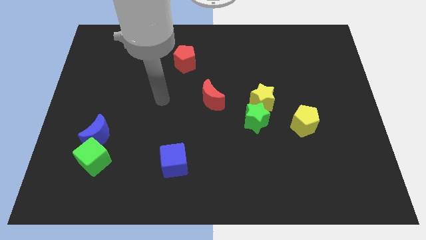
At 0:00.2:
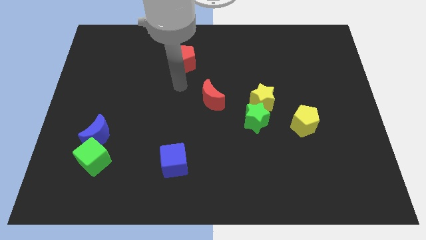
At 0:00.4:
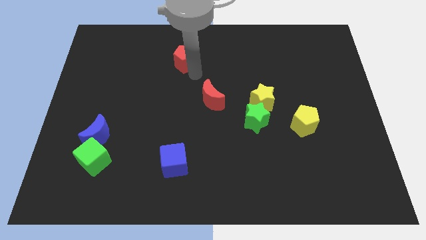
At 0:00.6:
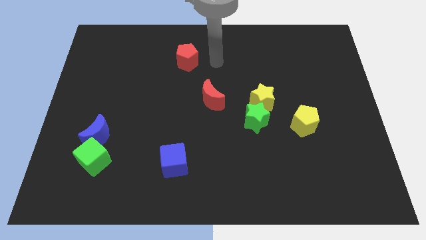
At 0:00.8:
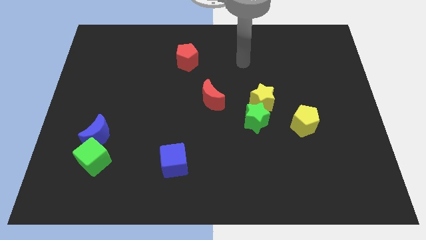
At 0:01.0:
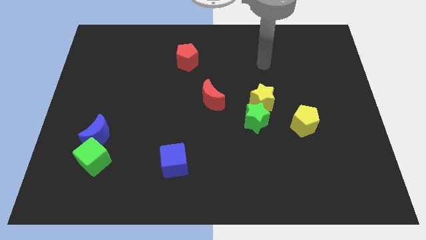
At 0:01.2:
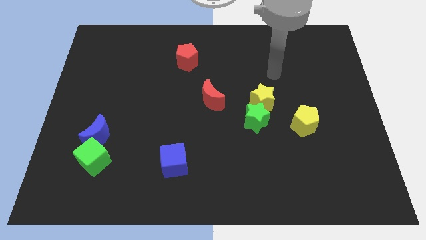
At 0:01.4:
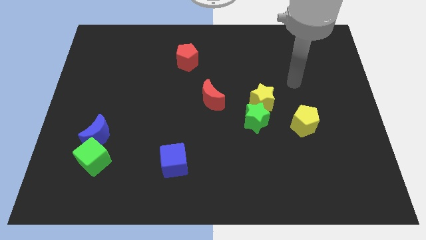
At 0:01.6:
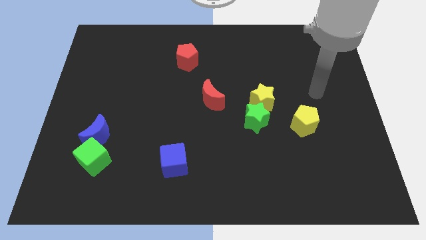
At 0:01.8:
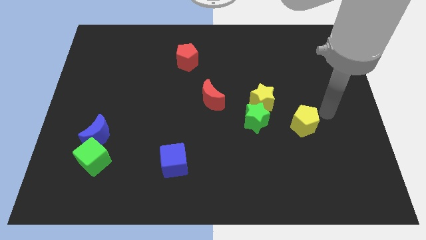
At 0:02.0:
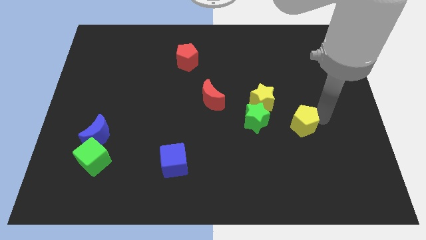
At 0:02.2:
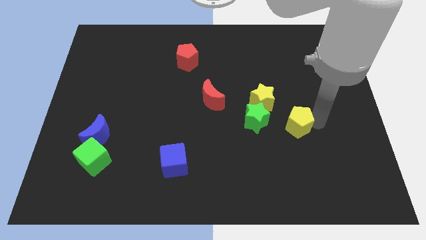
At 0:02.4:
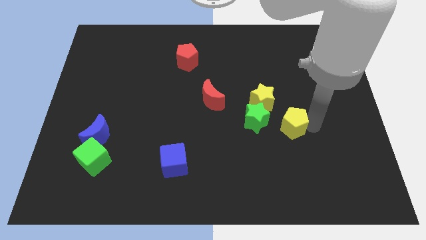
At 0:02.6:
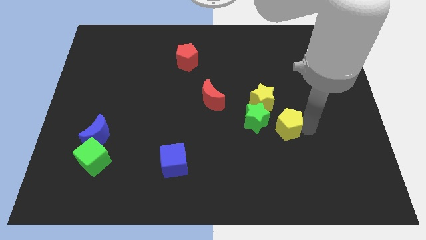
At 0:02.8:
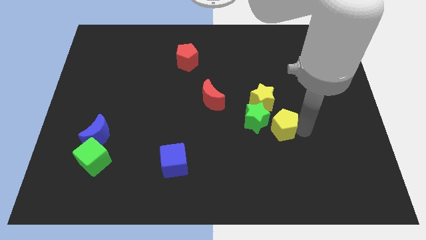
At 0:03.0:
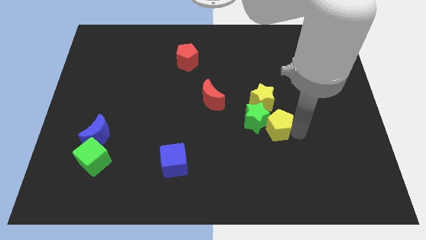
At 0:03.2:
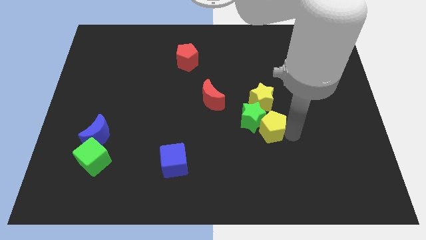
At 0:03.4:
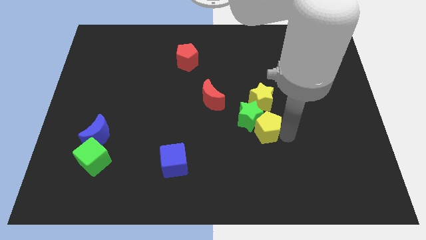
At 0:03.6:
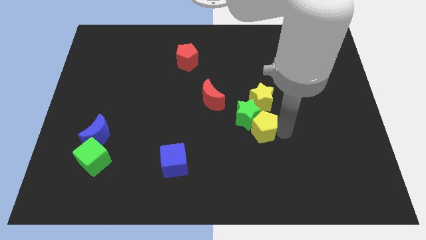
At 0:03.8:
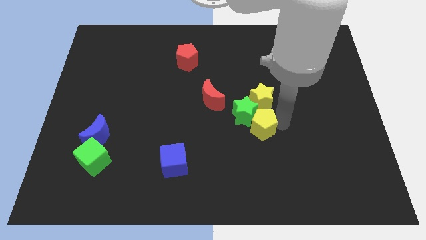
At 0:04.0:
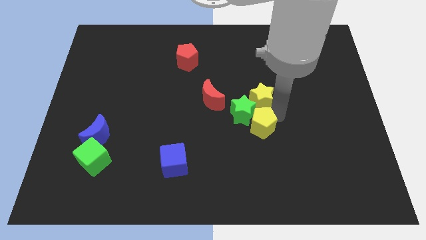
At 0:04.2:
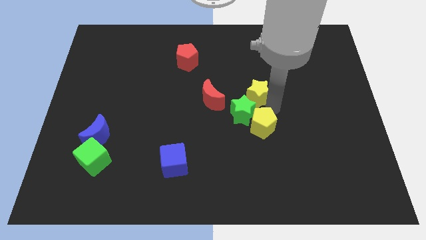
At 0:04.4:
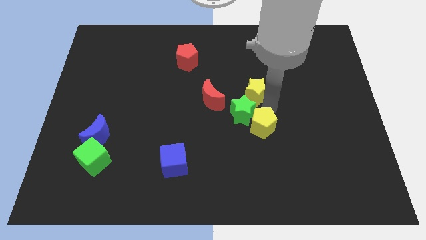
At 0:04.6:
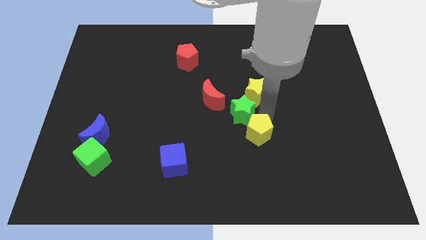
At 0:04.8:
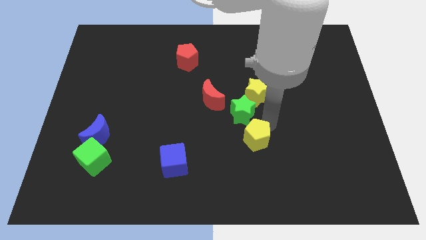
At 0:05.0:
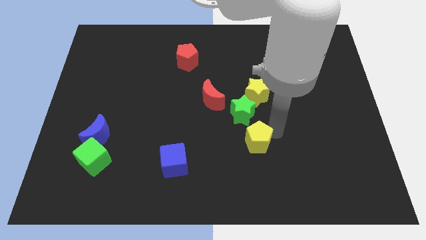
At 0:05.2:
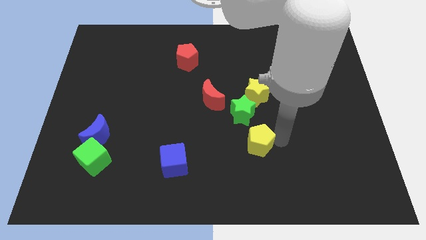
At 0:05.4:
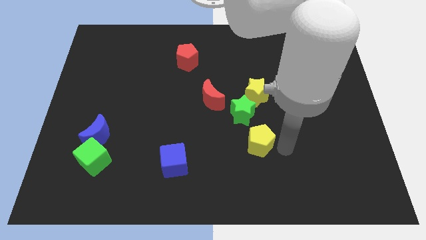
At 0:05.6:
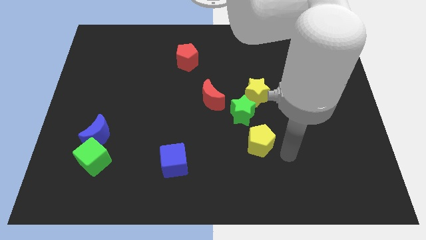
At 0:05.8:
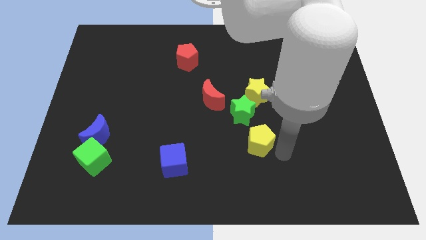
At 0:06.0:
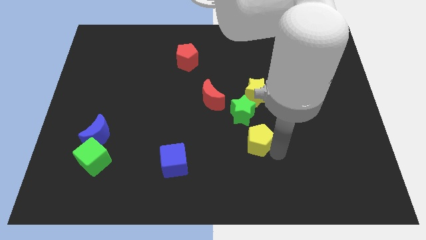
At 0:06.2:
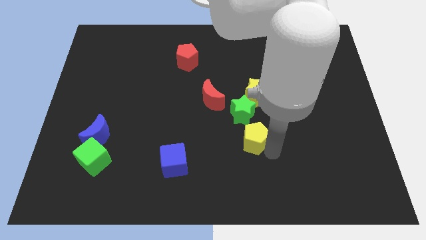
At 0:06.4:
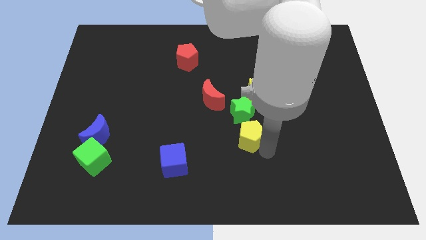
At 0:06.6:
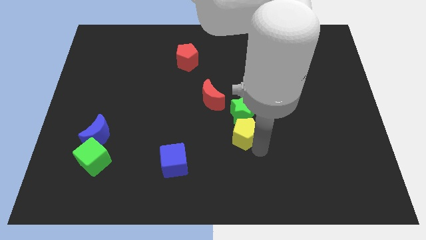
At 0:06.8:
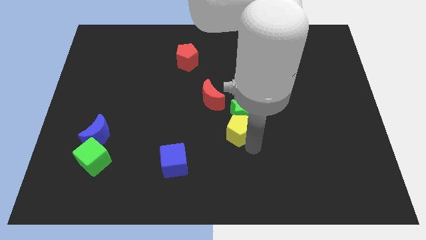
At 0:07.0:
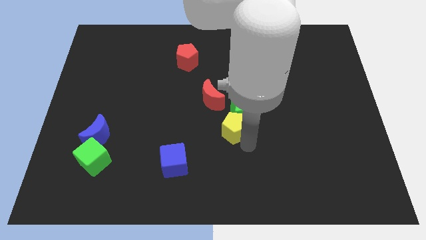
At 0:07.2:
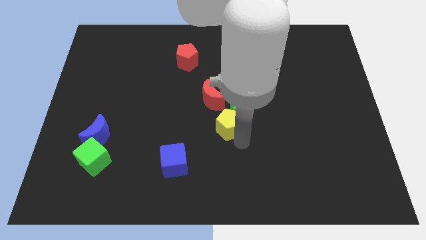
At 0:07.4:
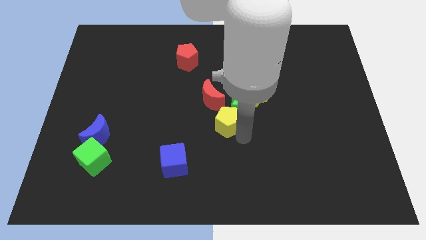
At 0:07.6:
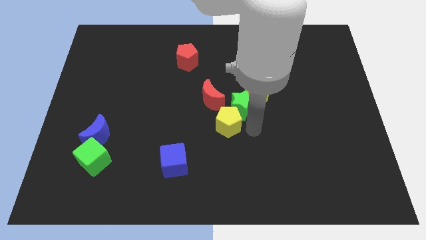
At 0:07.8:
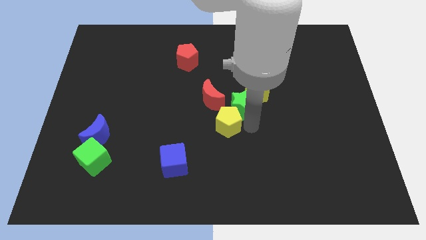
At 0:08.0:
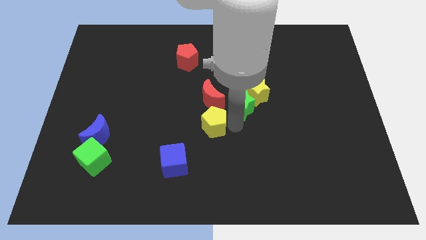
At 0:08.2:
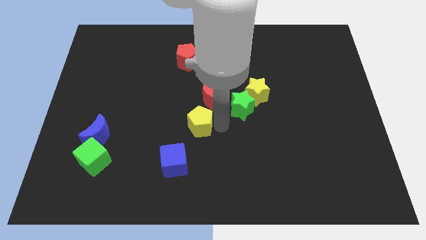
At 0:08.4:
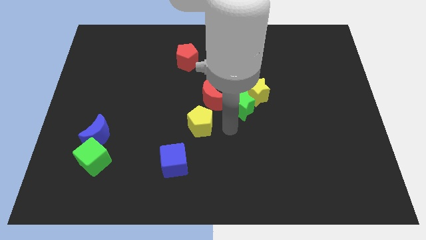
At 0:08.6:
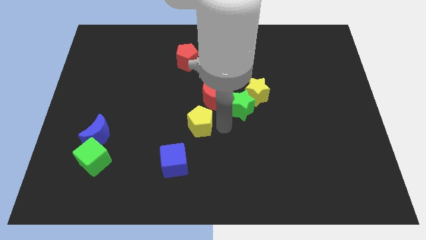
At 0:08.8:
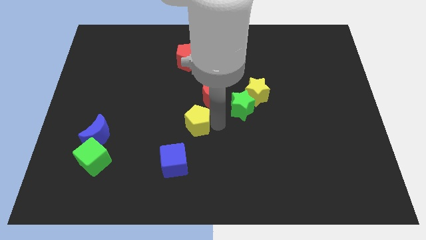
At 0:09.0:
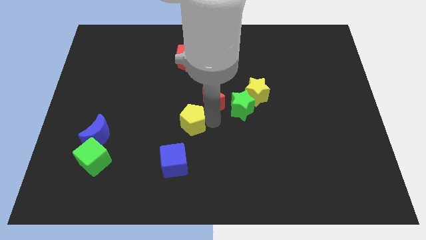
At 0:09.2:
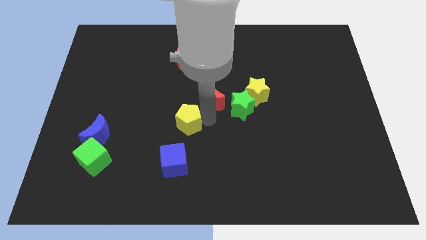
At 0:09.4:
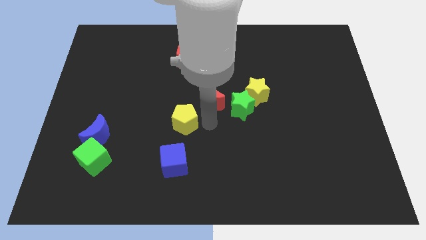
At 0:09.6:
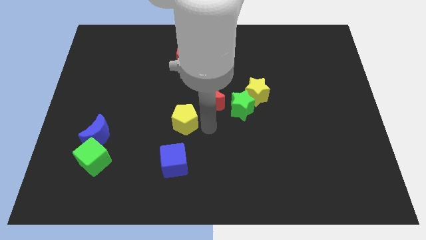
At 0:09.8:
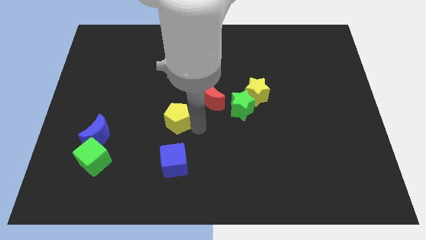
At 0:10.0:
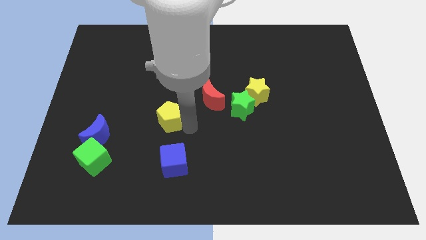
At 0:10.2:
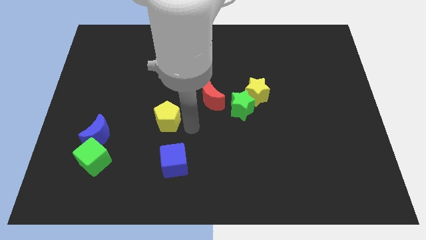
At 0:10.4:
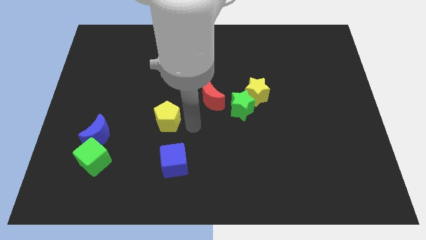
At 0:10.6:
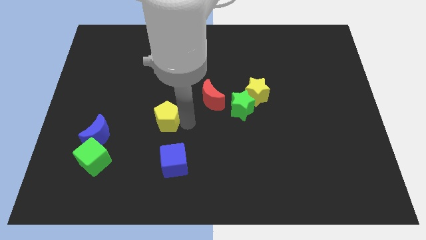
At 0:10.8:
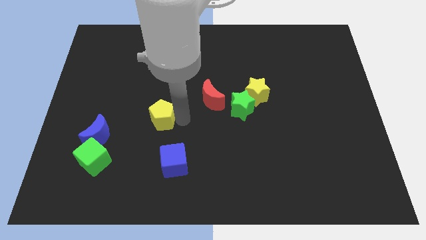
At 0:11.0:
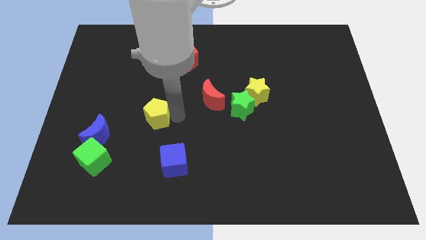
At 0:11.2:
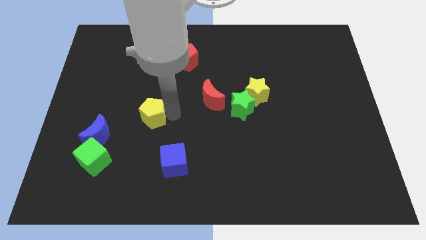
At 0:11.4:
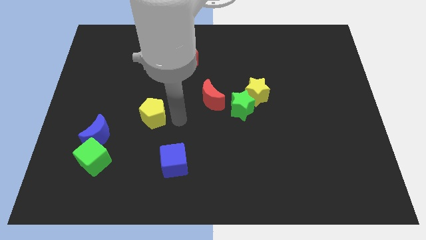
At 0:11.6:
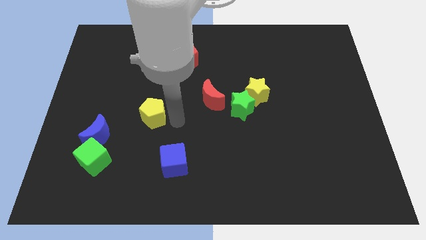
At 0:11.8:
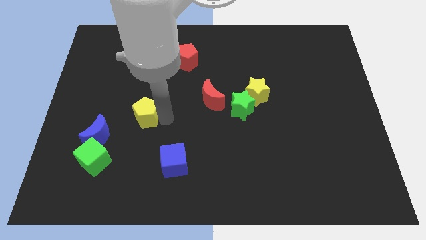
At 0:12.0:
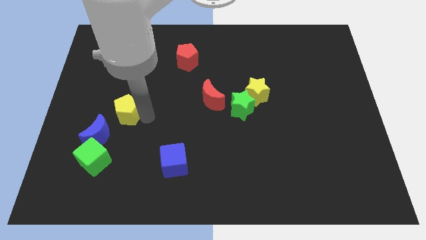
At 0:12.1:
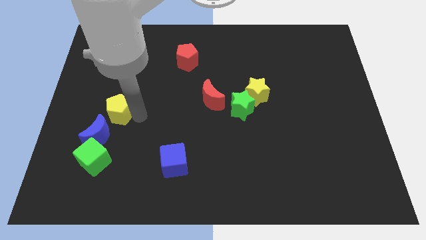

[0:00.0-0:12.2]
put the yellow pentagon above the blue moon

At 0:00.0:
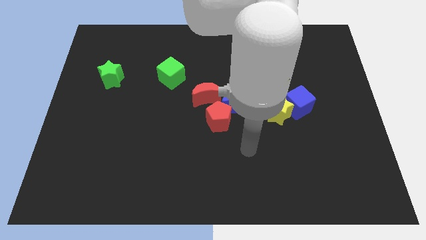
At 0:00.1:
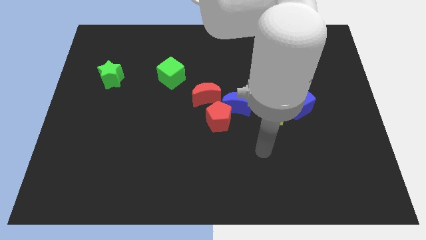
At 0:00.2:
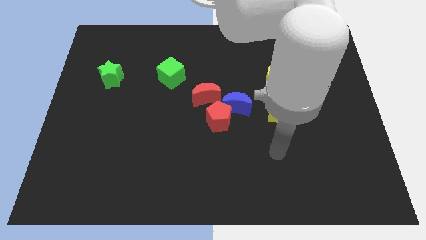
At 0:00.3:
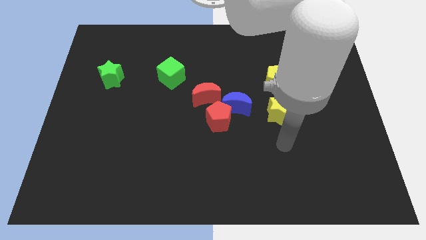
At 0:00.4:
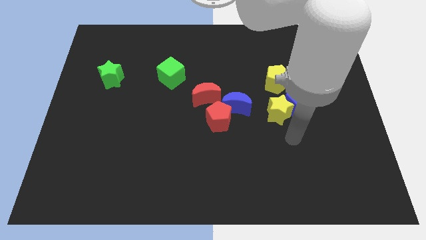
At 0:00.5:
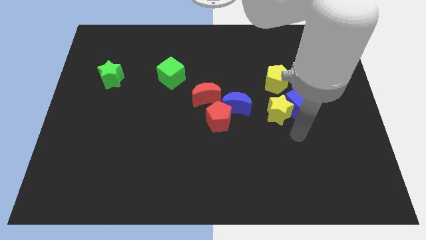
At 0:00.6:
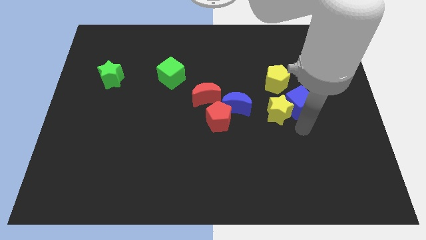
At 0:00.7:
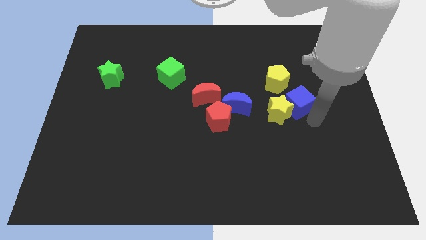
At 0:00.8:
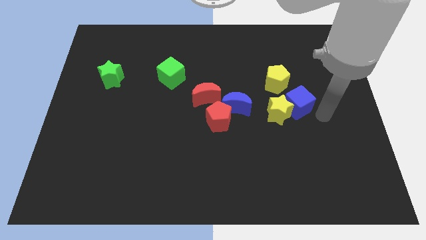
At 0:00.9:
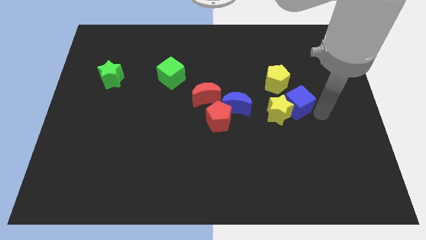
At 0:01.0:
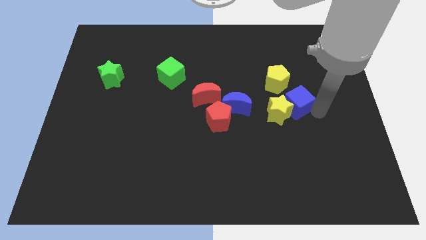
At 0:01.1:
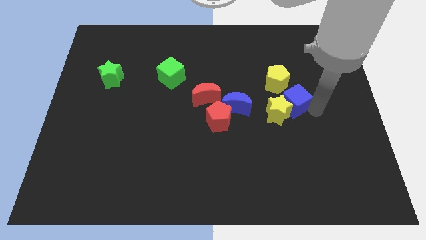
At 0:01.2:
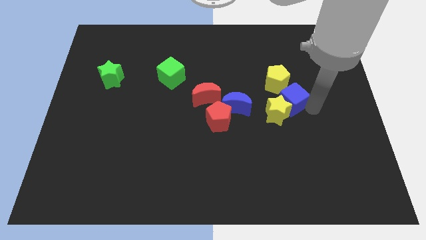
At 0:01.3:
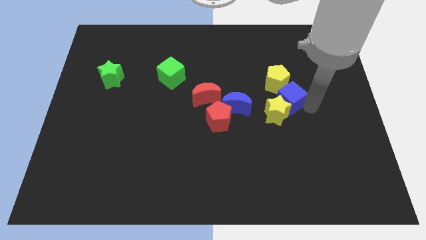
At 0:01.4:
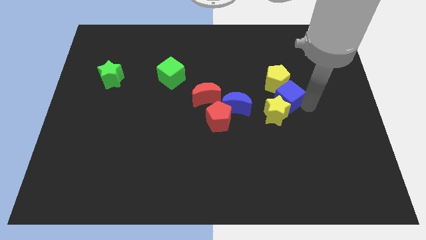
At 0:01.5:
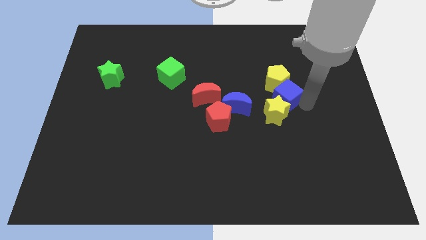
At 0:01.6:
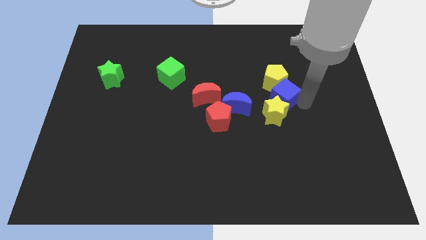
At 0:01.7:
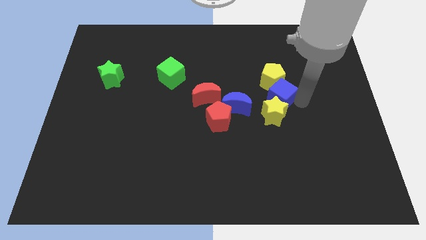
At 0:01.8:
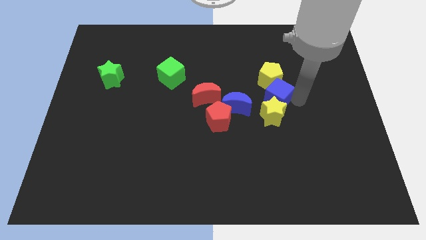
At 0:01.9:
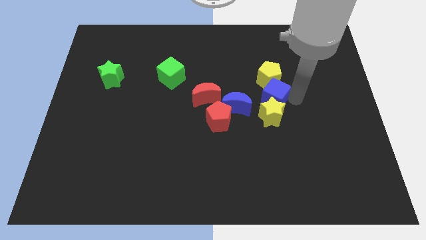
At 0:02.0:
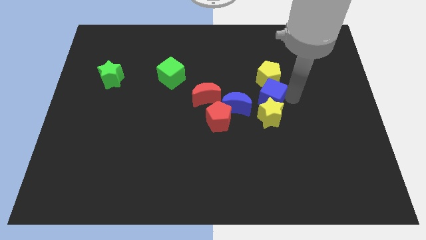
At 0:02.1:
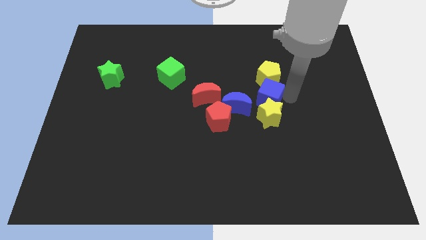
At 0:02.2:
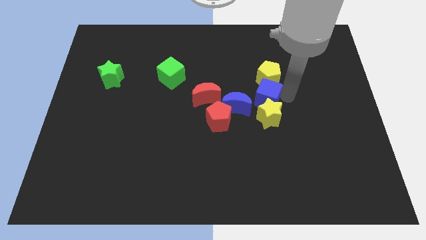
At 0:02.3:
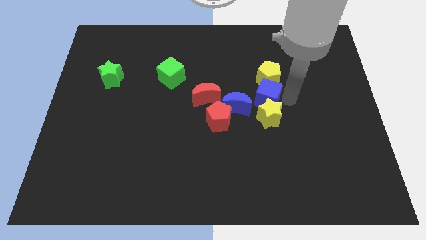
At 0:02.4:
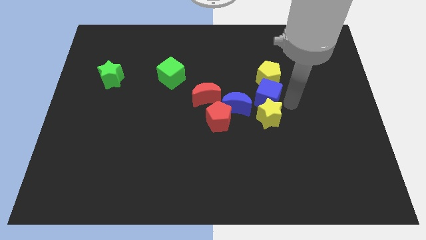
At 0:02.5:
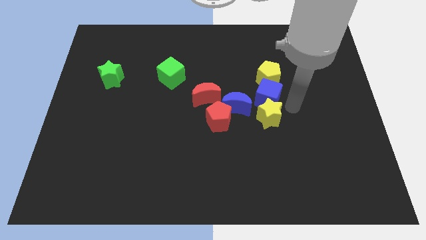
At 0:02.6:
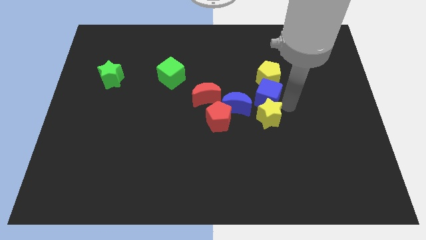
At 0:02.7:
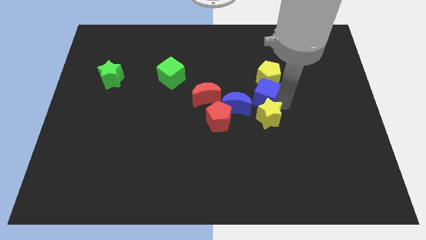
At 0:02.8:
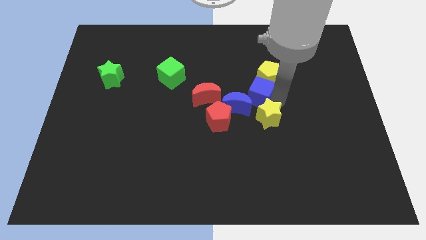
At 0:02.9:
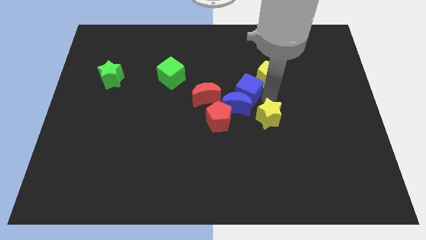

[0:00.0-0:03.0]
move the blue cube left of the yellow pentagon
